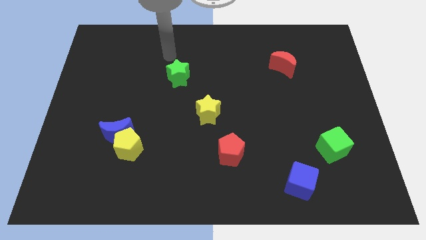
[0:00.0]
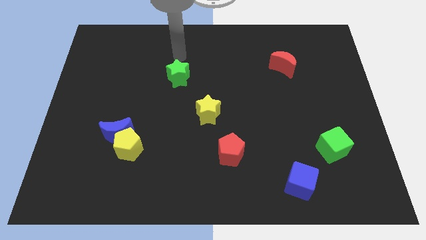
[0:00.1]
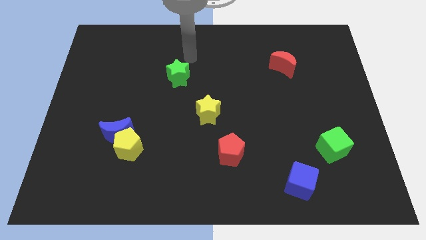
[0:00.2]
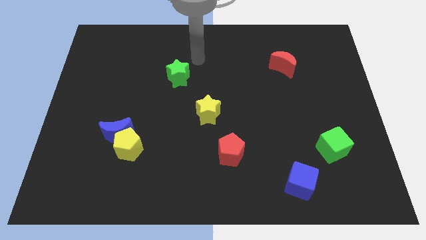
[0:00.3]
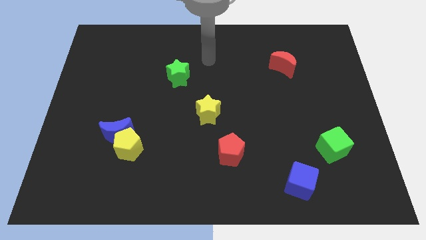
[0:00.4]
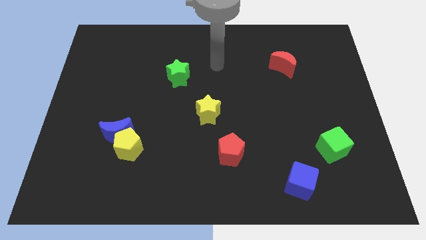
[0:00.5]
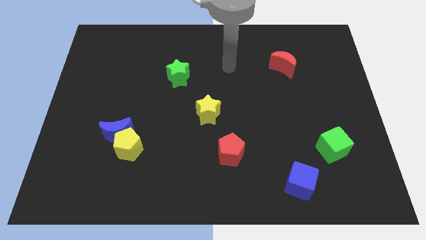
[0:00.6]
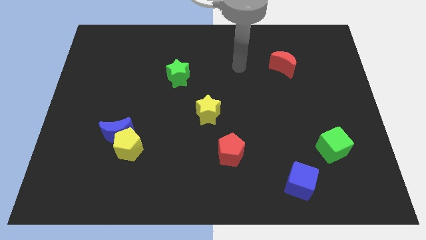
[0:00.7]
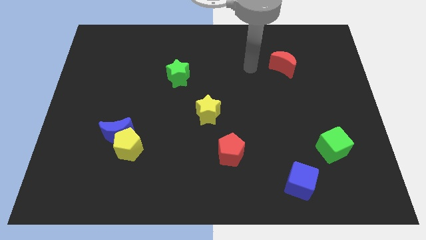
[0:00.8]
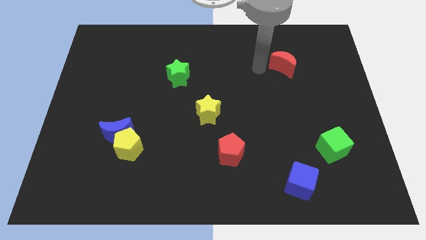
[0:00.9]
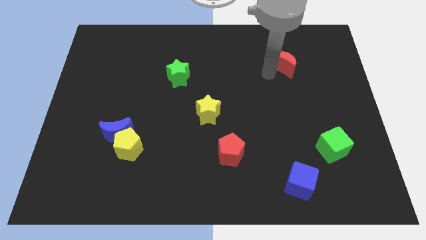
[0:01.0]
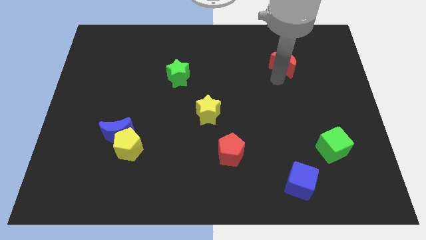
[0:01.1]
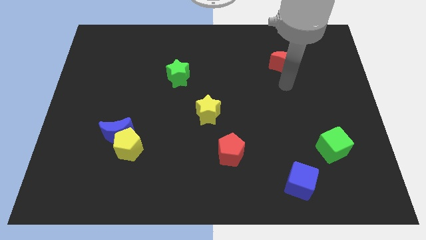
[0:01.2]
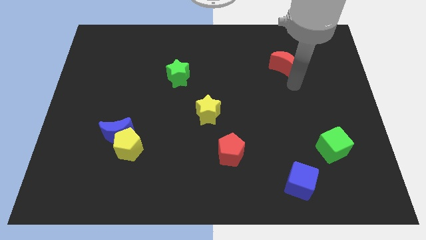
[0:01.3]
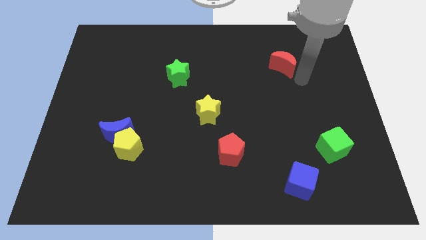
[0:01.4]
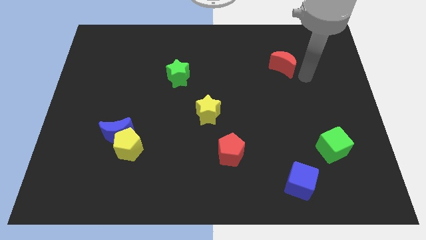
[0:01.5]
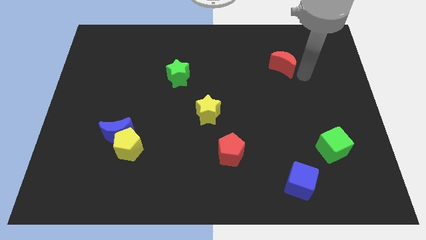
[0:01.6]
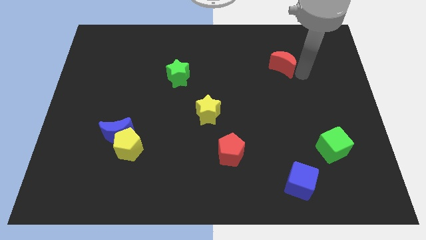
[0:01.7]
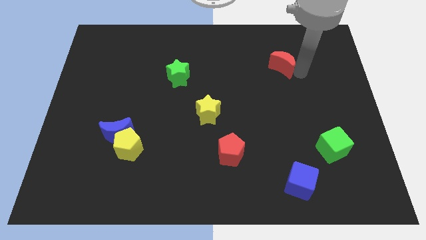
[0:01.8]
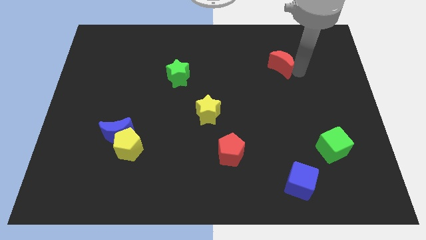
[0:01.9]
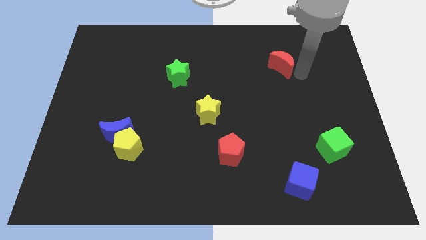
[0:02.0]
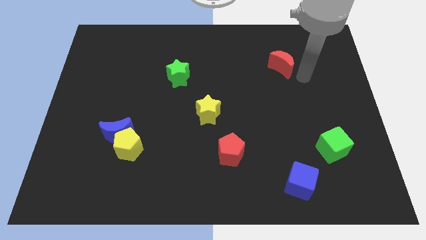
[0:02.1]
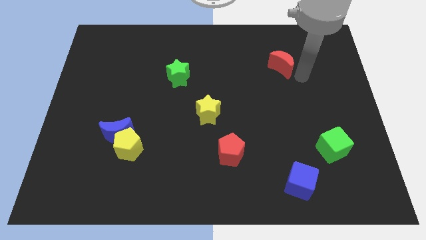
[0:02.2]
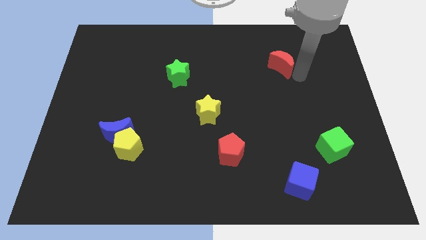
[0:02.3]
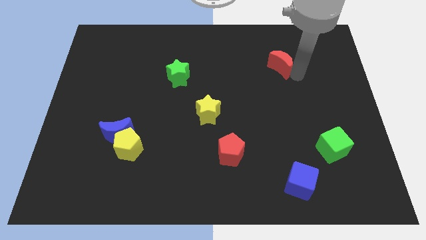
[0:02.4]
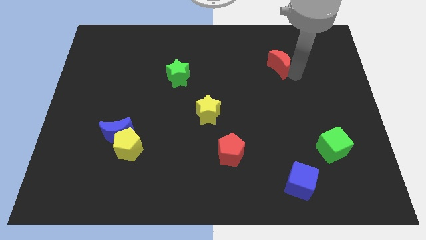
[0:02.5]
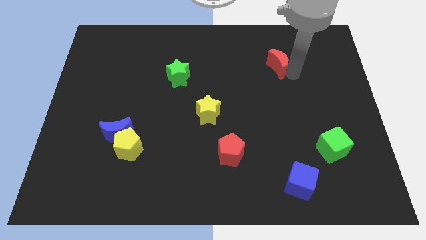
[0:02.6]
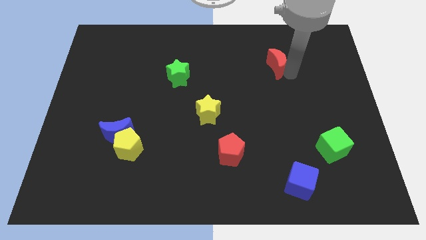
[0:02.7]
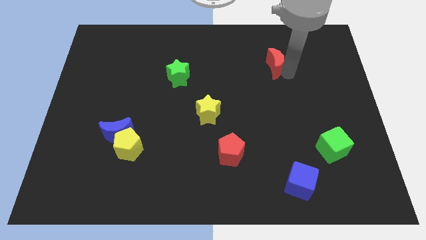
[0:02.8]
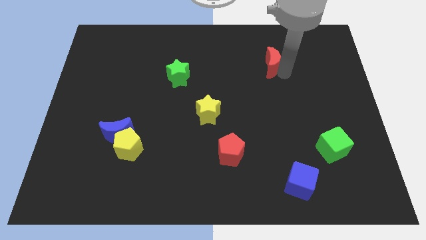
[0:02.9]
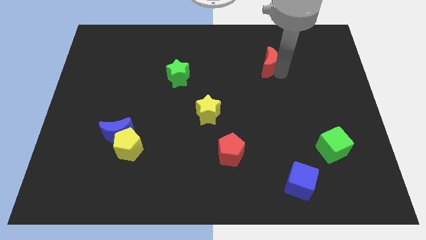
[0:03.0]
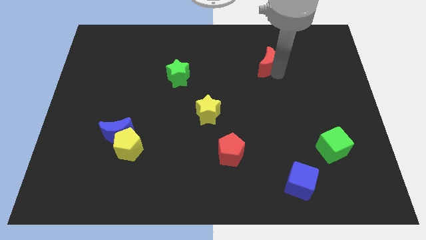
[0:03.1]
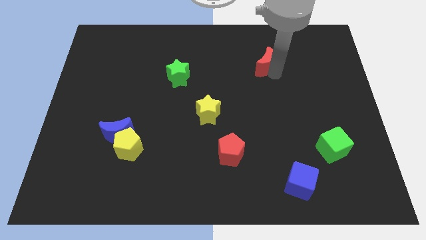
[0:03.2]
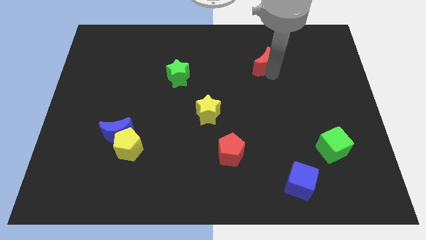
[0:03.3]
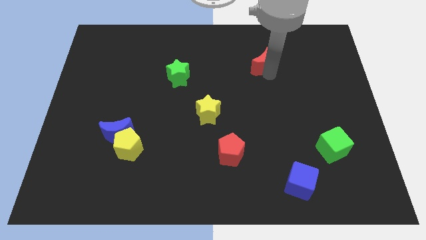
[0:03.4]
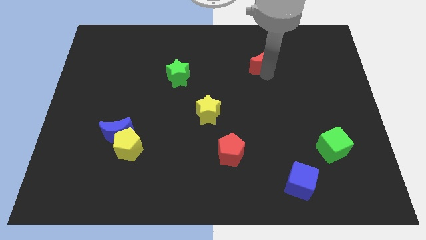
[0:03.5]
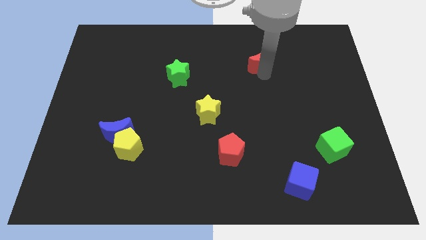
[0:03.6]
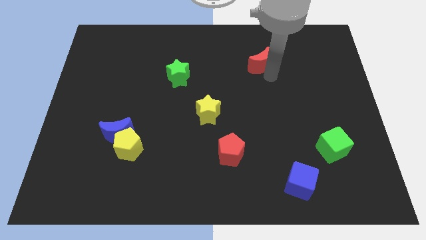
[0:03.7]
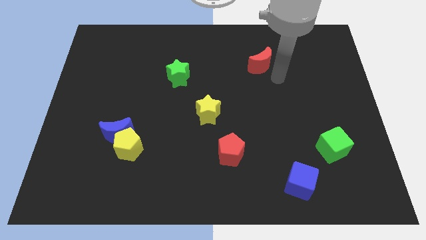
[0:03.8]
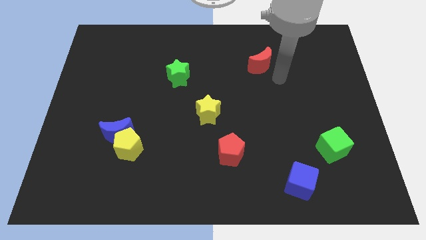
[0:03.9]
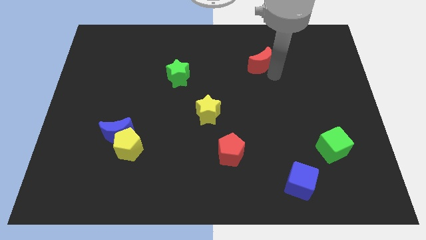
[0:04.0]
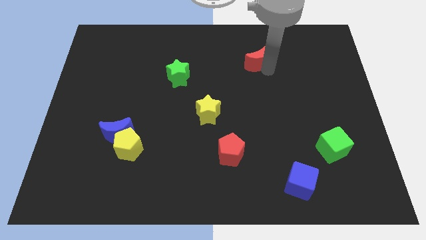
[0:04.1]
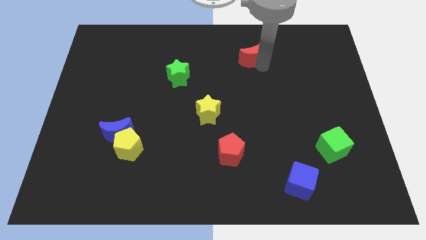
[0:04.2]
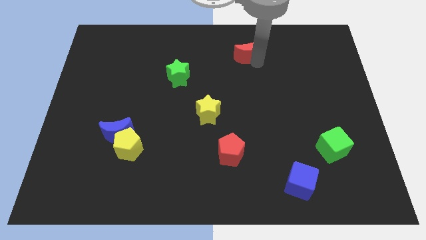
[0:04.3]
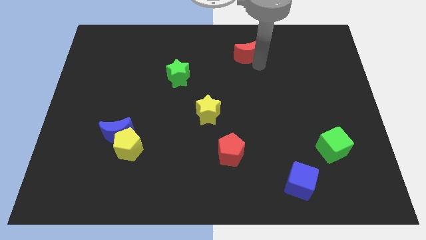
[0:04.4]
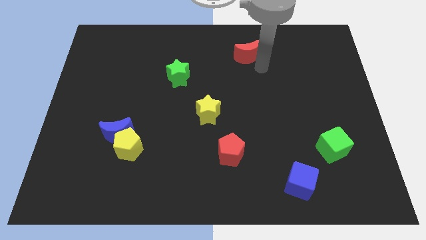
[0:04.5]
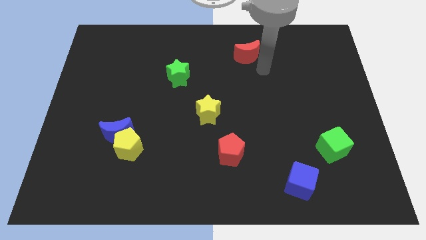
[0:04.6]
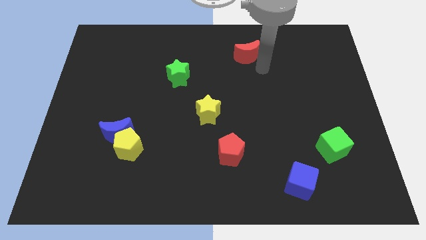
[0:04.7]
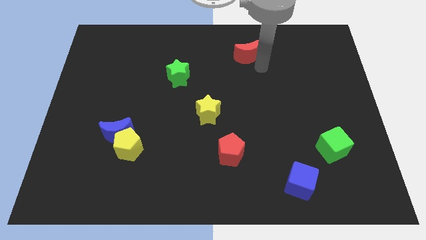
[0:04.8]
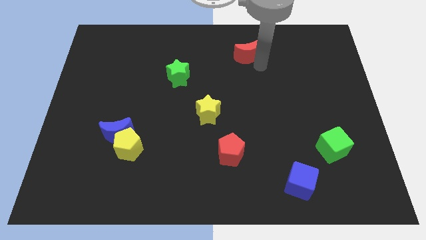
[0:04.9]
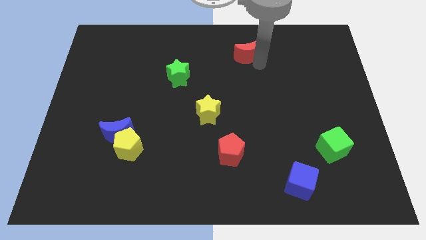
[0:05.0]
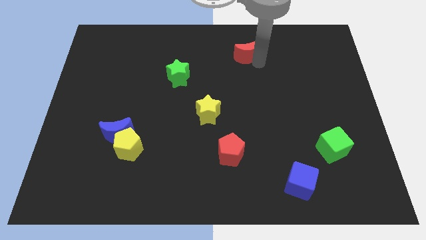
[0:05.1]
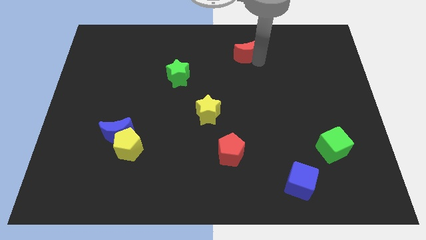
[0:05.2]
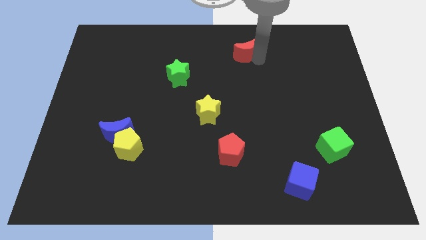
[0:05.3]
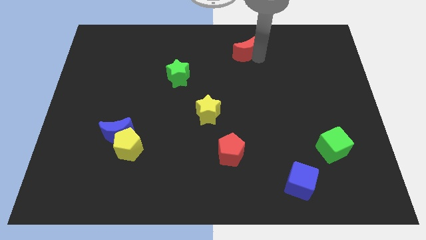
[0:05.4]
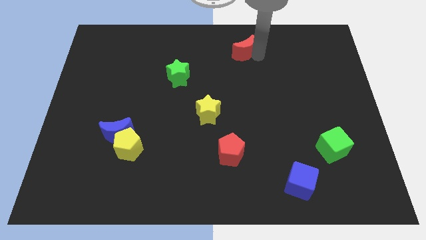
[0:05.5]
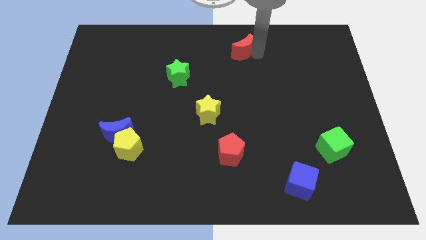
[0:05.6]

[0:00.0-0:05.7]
move the red moon to the top side

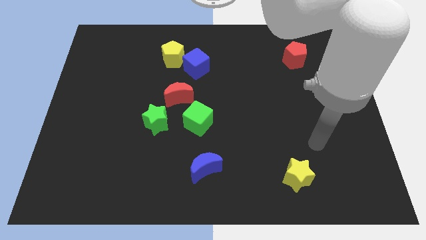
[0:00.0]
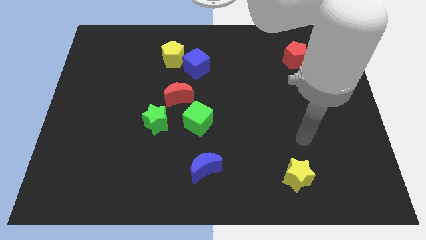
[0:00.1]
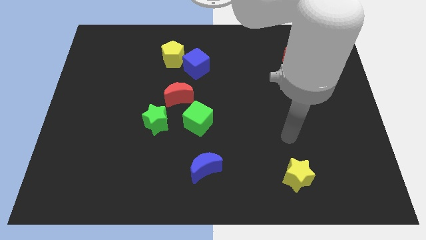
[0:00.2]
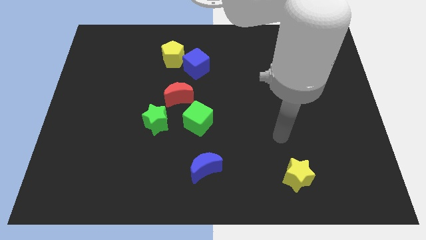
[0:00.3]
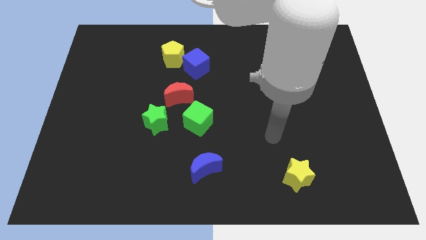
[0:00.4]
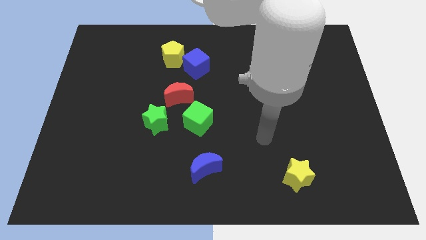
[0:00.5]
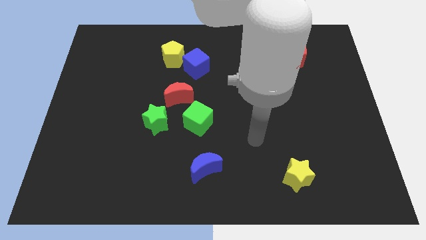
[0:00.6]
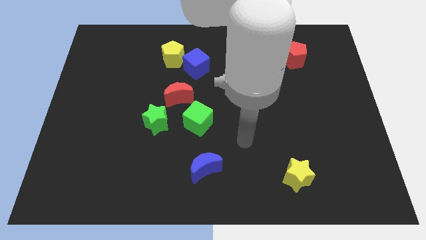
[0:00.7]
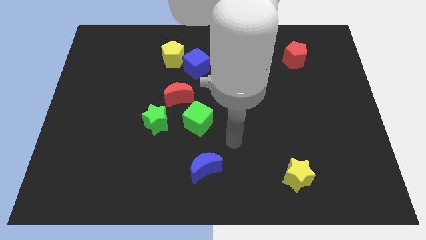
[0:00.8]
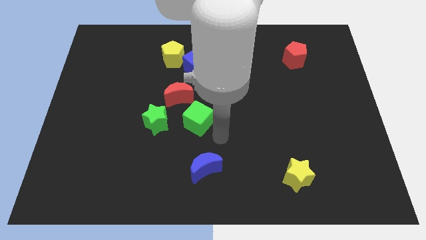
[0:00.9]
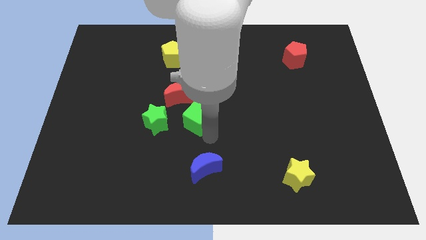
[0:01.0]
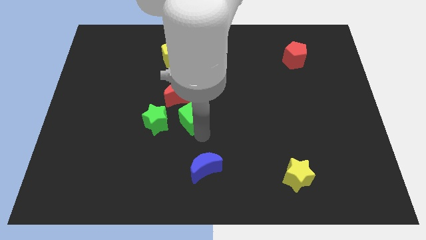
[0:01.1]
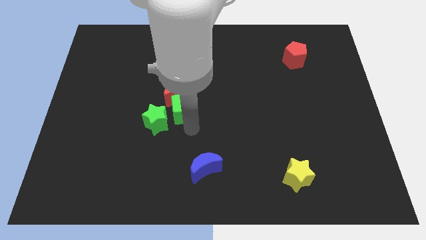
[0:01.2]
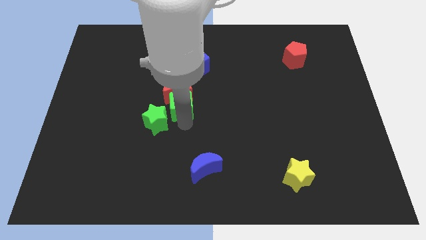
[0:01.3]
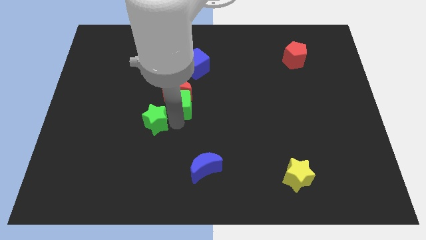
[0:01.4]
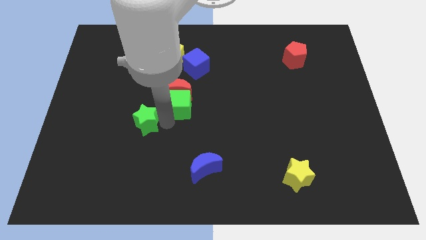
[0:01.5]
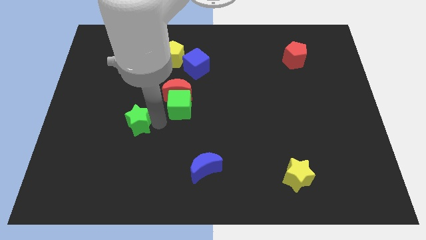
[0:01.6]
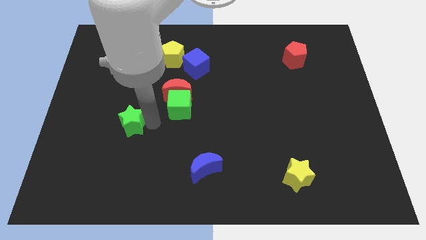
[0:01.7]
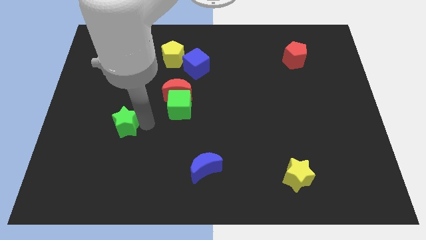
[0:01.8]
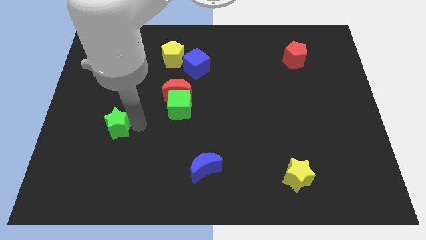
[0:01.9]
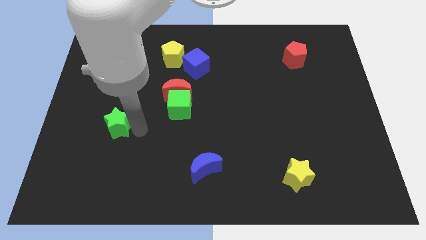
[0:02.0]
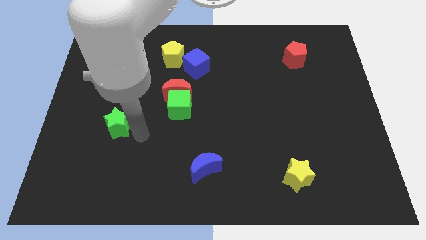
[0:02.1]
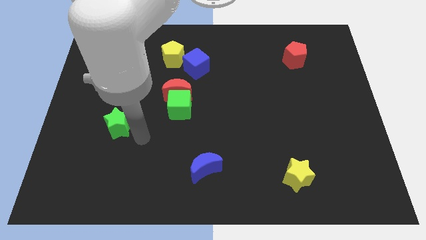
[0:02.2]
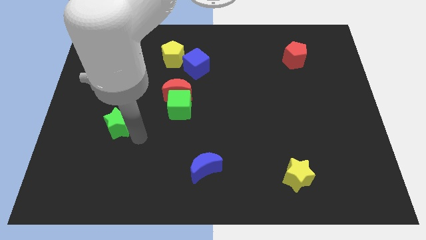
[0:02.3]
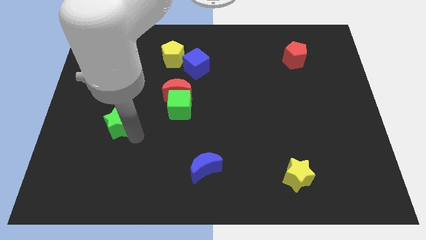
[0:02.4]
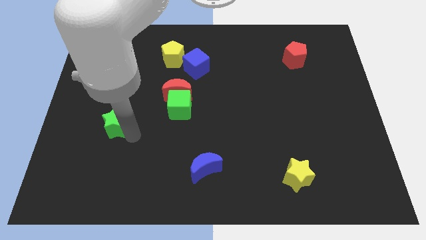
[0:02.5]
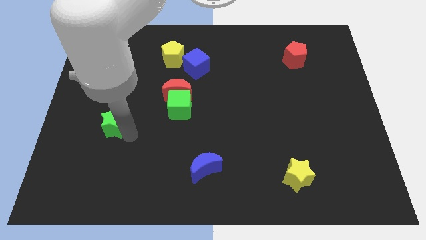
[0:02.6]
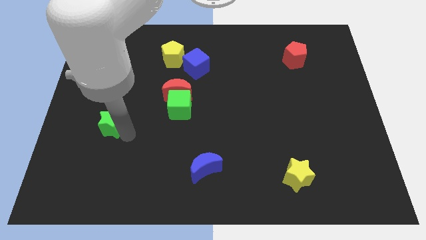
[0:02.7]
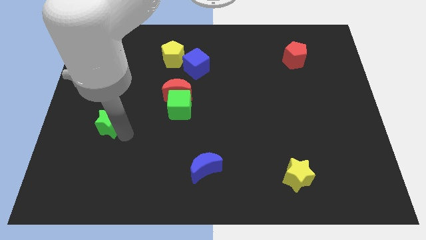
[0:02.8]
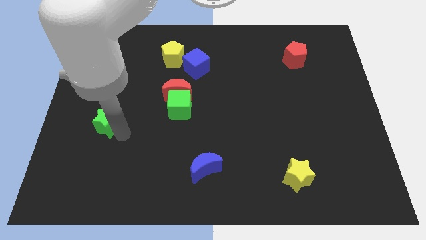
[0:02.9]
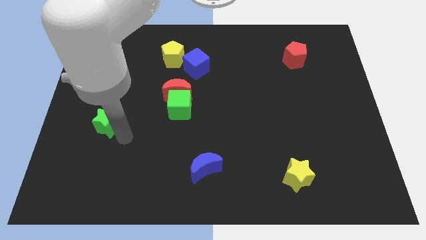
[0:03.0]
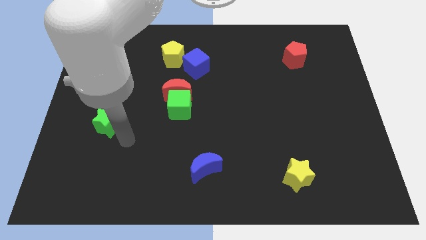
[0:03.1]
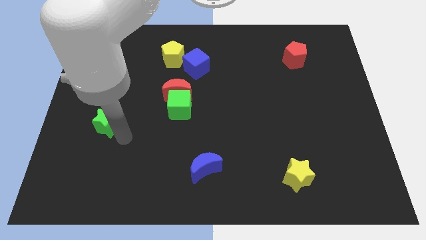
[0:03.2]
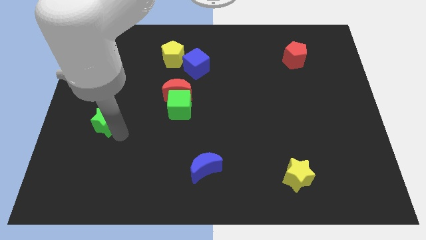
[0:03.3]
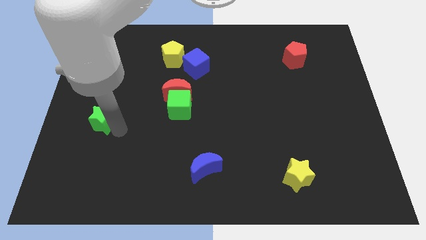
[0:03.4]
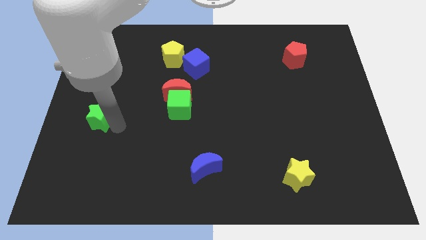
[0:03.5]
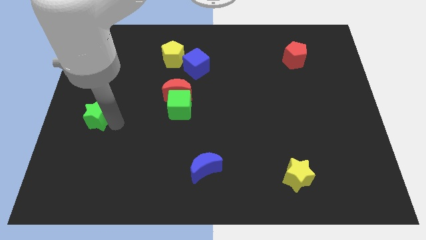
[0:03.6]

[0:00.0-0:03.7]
slide the green star to the left side of the board
